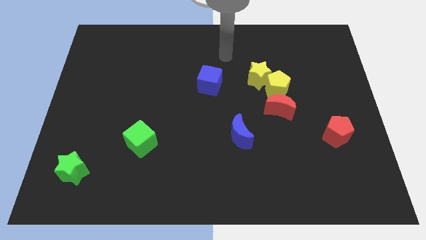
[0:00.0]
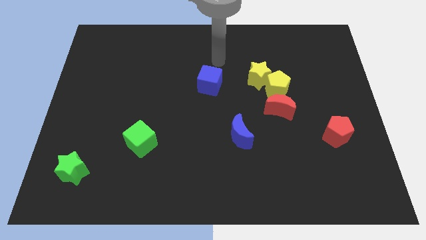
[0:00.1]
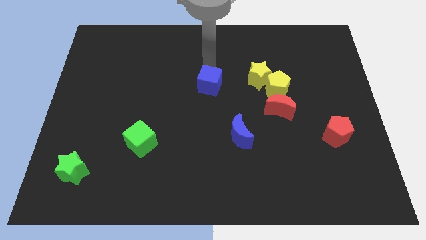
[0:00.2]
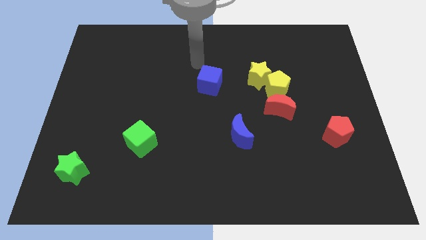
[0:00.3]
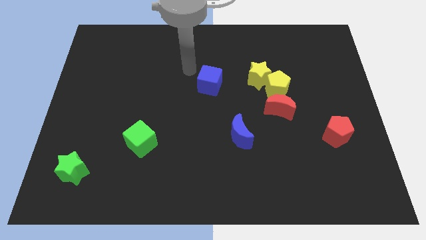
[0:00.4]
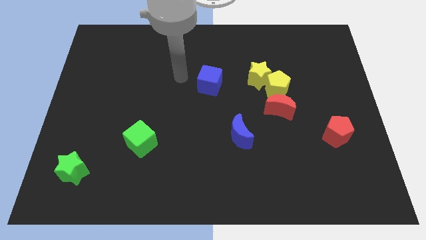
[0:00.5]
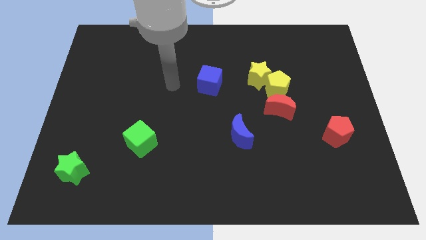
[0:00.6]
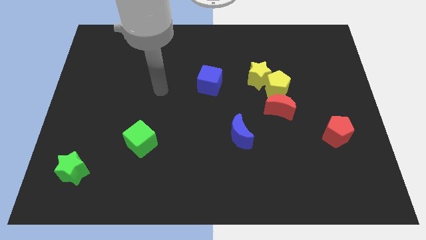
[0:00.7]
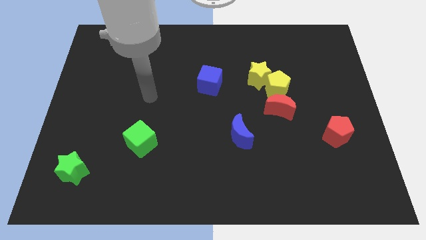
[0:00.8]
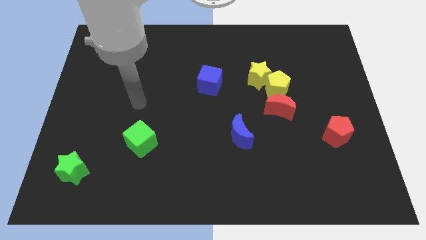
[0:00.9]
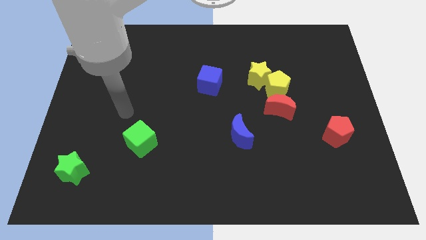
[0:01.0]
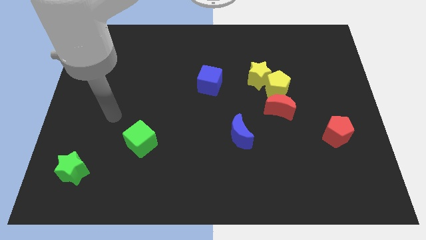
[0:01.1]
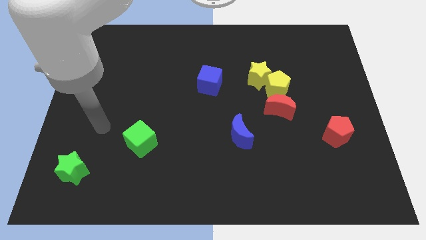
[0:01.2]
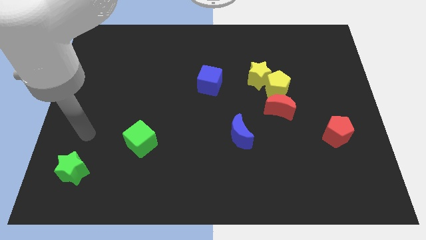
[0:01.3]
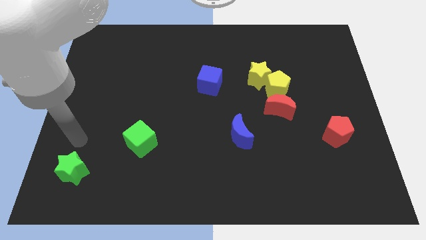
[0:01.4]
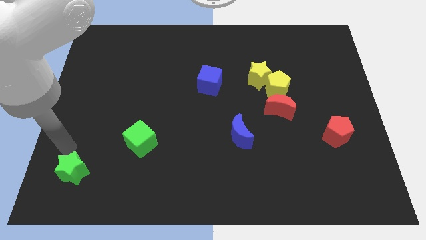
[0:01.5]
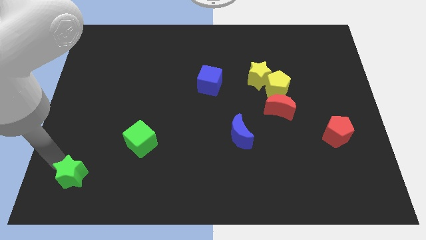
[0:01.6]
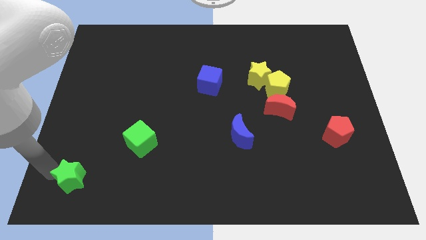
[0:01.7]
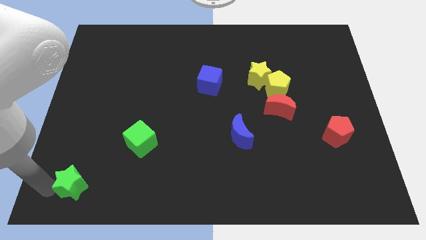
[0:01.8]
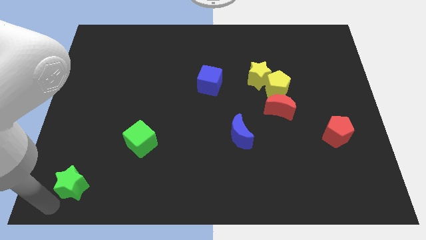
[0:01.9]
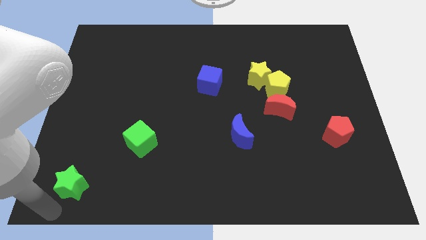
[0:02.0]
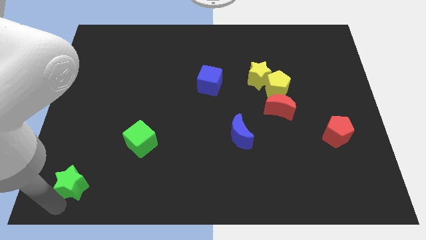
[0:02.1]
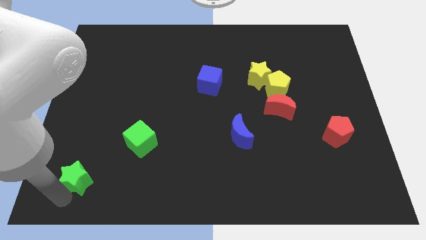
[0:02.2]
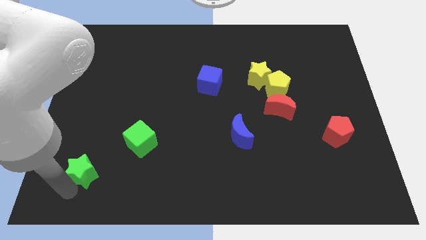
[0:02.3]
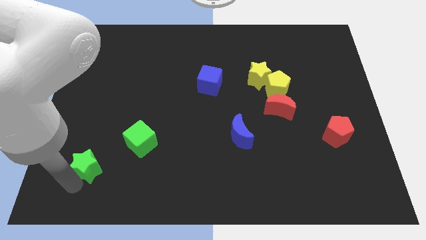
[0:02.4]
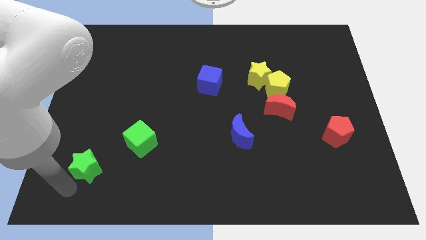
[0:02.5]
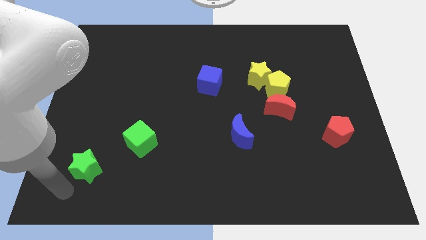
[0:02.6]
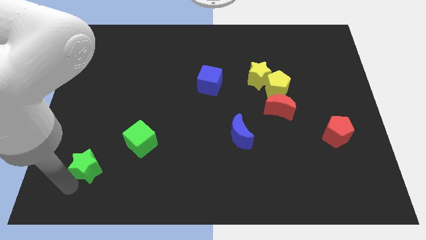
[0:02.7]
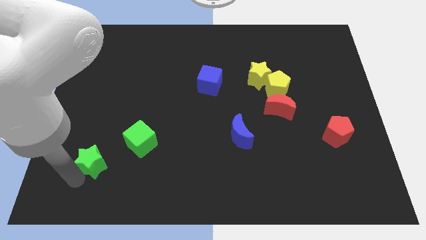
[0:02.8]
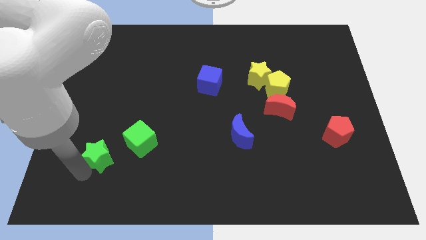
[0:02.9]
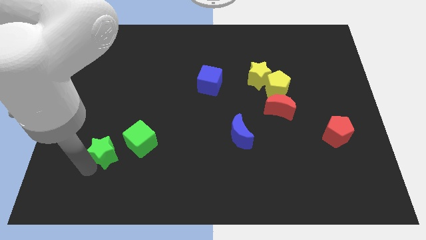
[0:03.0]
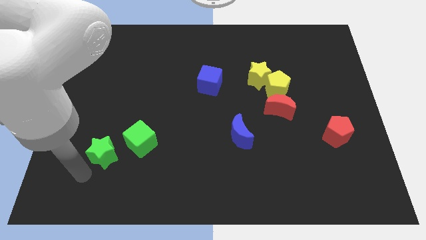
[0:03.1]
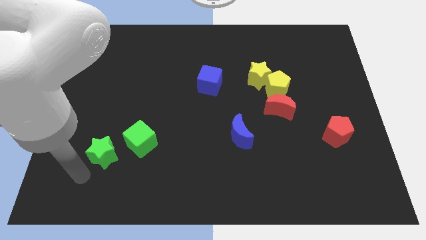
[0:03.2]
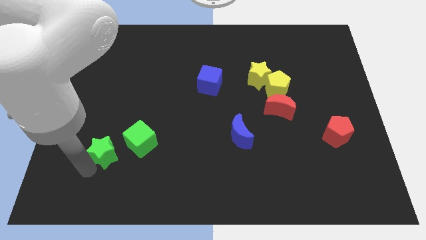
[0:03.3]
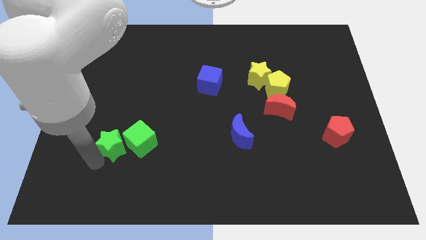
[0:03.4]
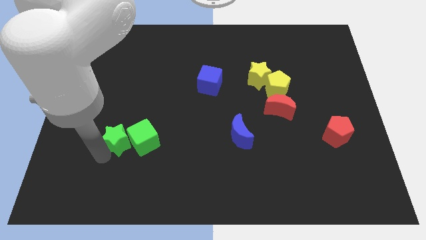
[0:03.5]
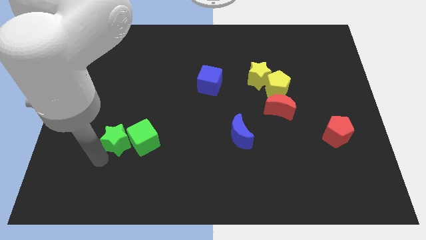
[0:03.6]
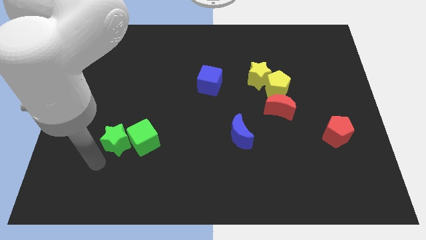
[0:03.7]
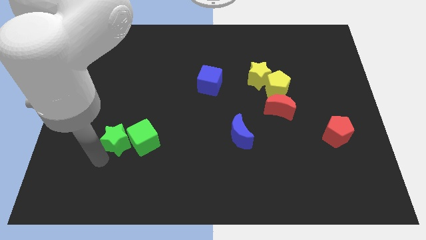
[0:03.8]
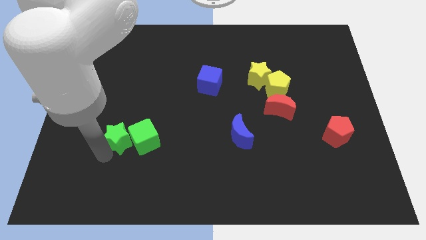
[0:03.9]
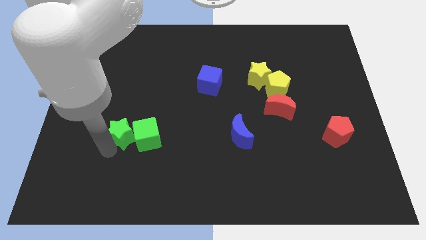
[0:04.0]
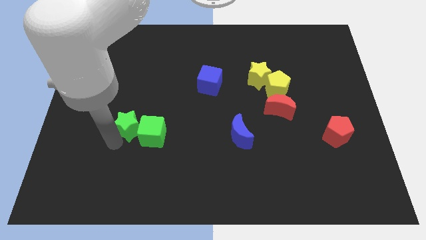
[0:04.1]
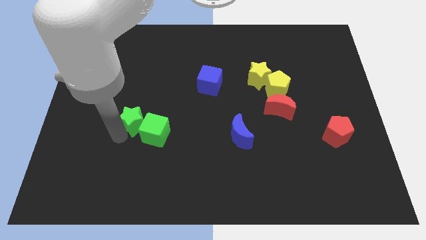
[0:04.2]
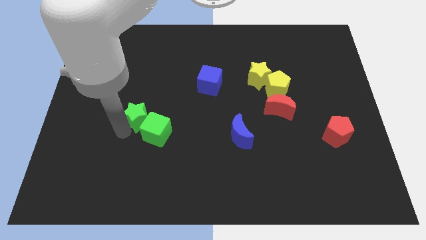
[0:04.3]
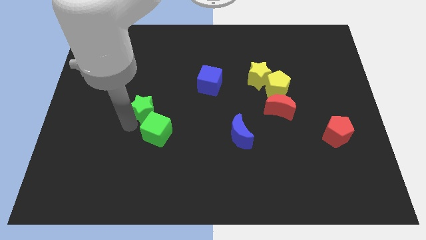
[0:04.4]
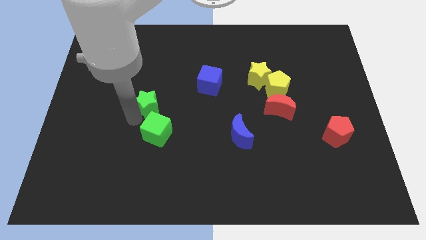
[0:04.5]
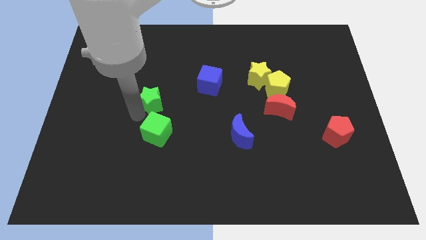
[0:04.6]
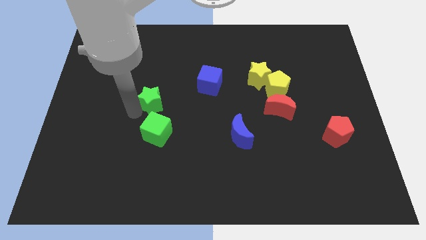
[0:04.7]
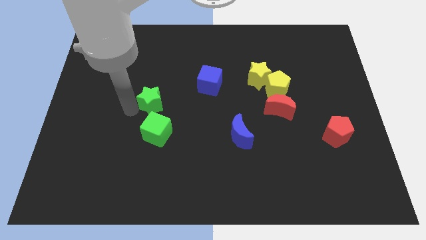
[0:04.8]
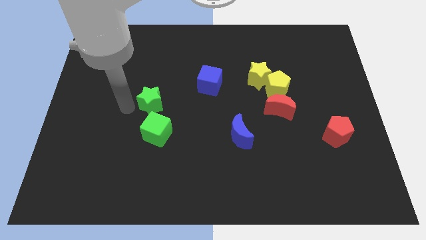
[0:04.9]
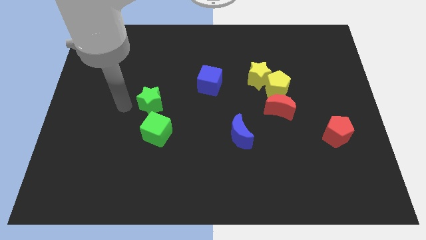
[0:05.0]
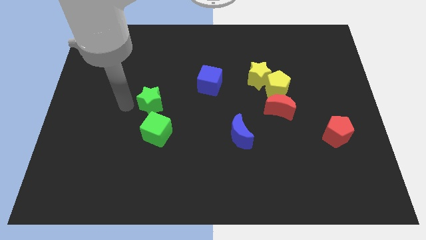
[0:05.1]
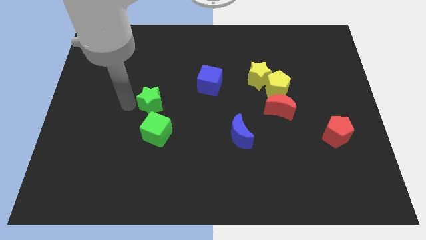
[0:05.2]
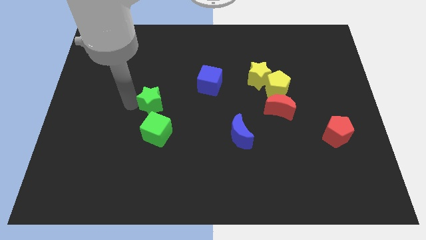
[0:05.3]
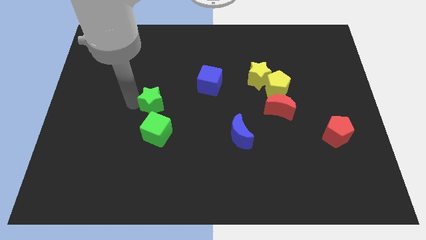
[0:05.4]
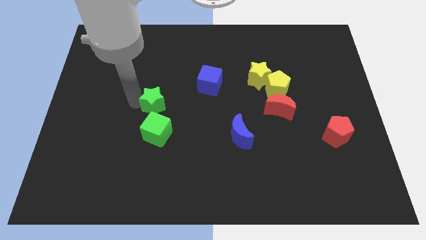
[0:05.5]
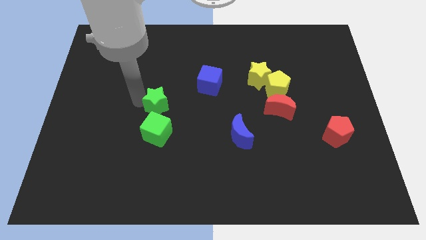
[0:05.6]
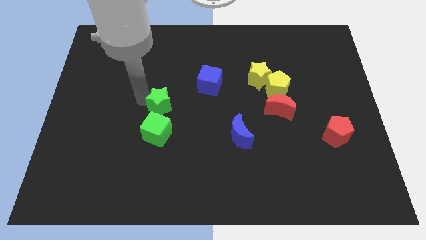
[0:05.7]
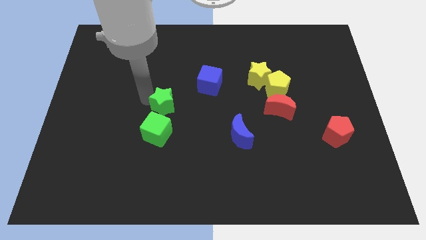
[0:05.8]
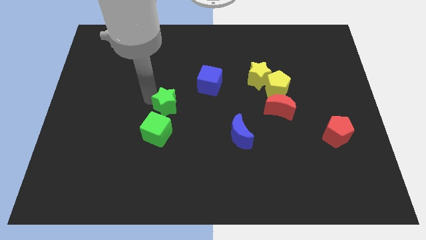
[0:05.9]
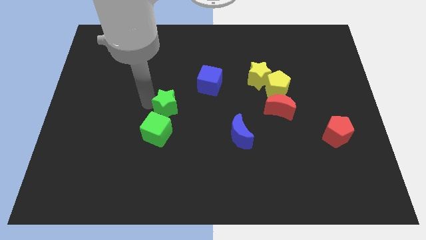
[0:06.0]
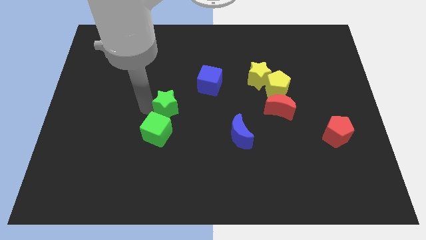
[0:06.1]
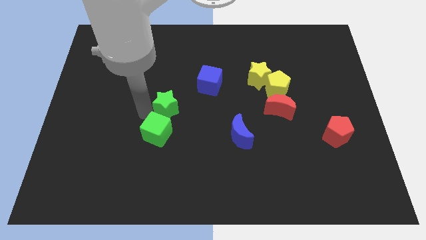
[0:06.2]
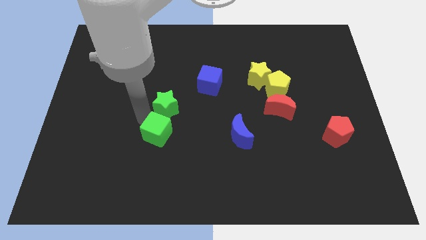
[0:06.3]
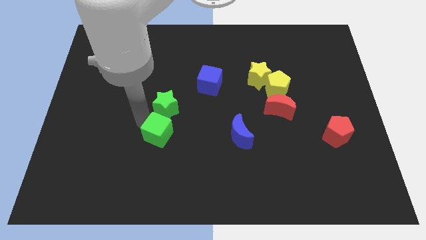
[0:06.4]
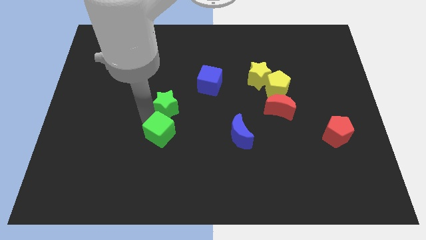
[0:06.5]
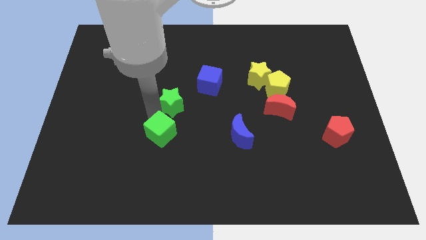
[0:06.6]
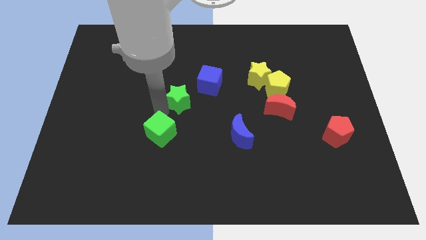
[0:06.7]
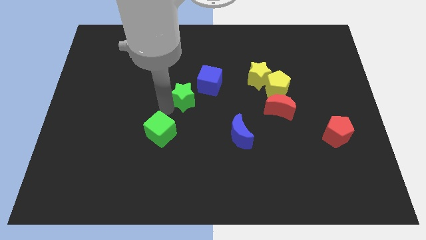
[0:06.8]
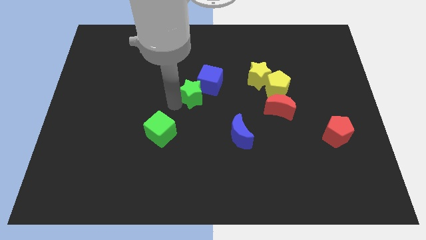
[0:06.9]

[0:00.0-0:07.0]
put the green star close to the blue cube

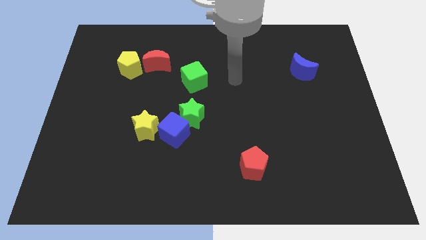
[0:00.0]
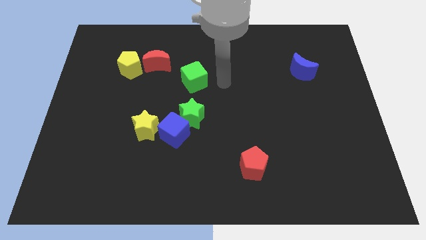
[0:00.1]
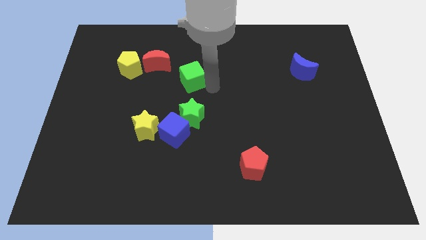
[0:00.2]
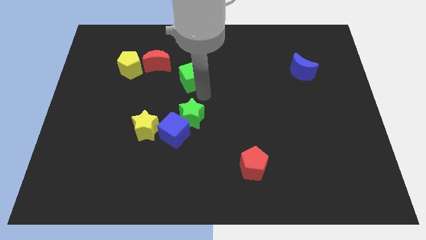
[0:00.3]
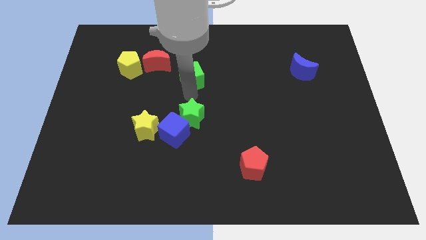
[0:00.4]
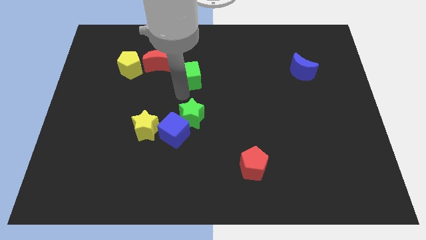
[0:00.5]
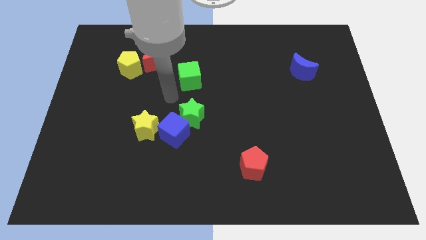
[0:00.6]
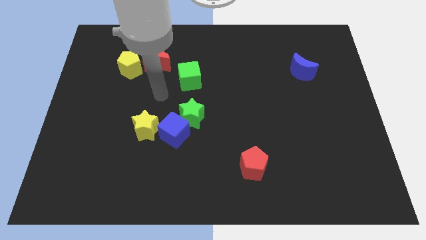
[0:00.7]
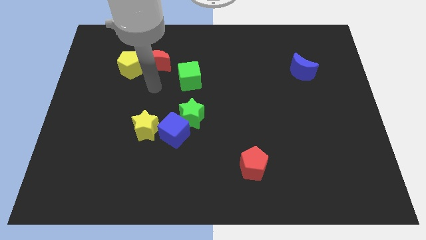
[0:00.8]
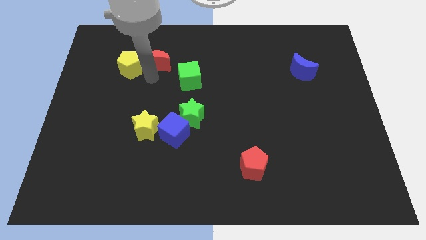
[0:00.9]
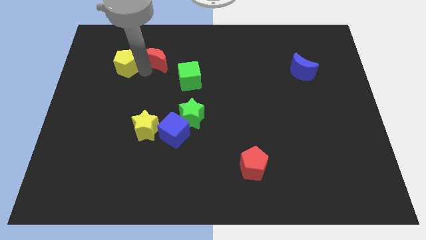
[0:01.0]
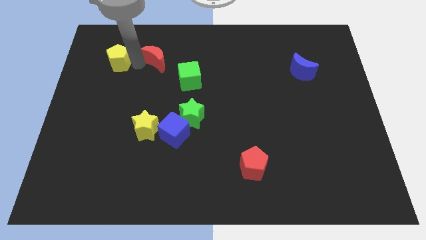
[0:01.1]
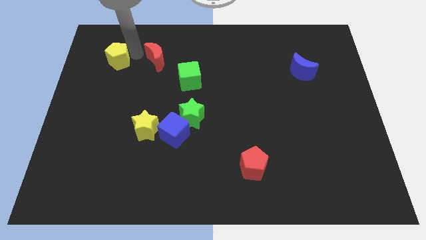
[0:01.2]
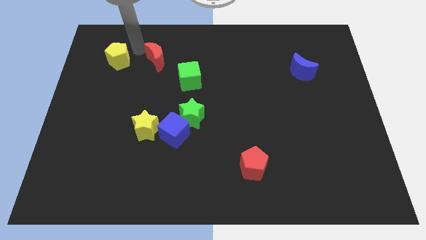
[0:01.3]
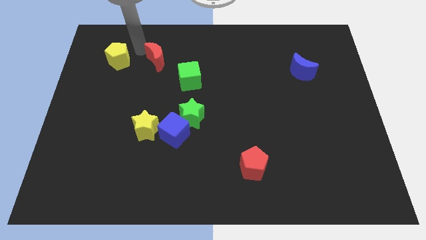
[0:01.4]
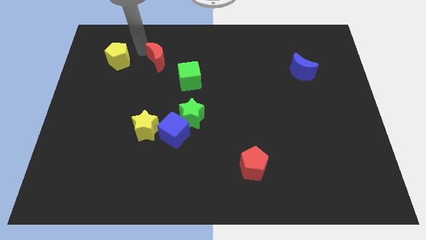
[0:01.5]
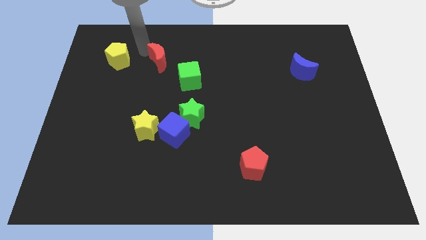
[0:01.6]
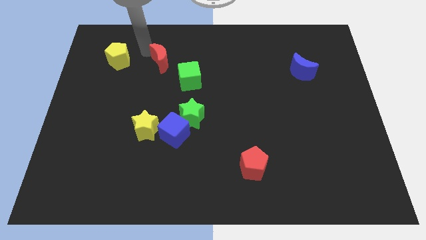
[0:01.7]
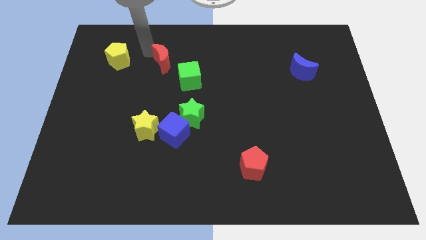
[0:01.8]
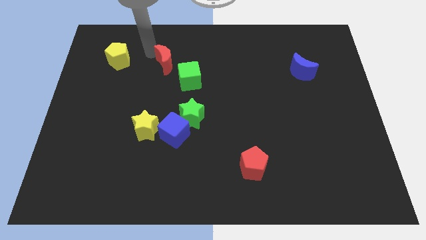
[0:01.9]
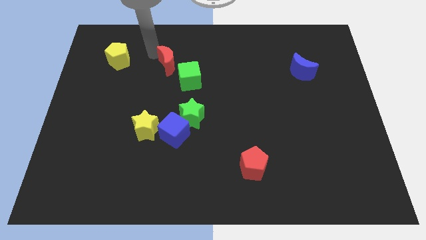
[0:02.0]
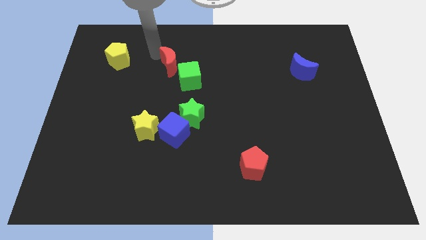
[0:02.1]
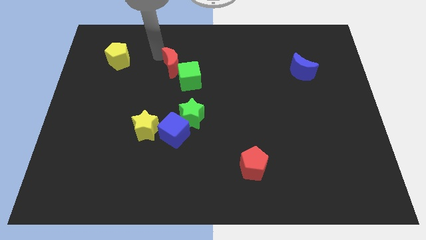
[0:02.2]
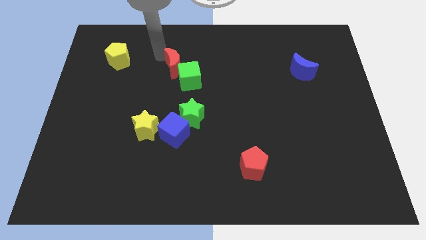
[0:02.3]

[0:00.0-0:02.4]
push the red moon close to the green cube
